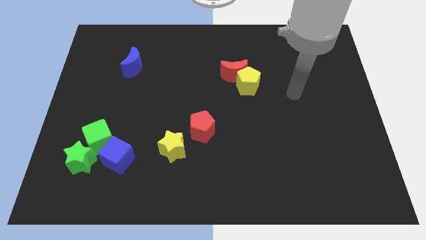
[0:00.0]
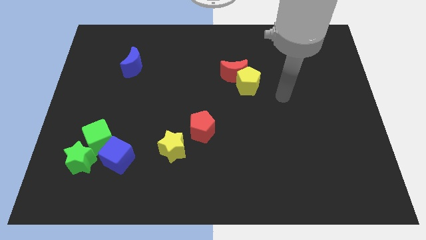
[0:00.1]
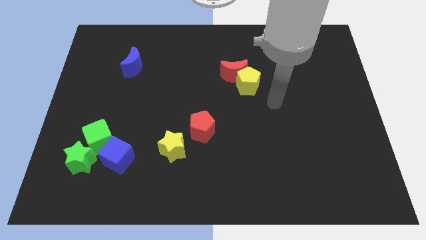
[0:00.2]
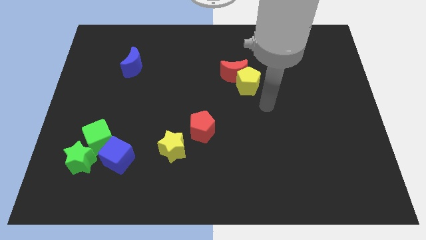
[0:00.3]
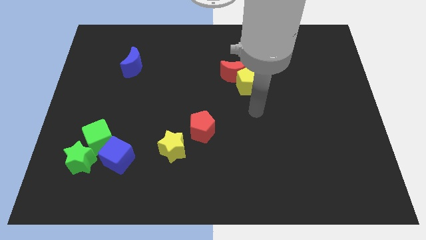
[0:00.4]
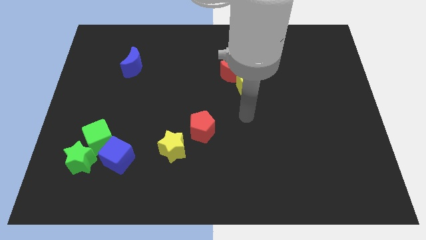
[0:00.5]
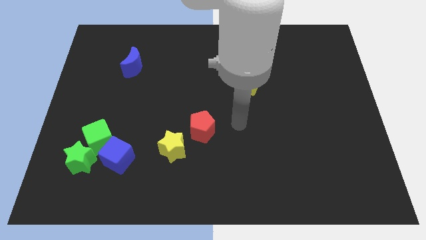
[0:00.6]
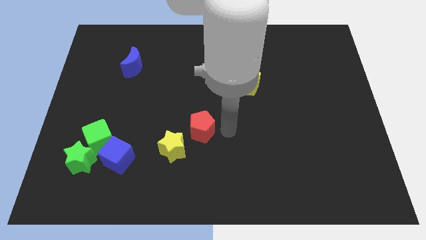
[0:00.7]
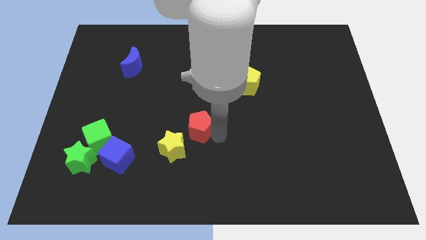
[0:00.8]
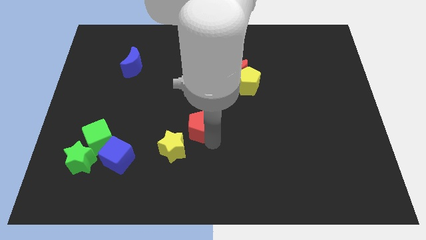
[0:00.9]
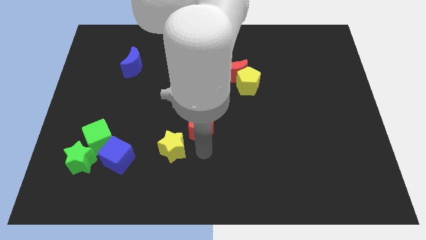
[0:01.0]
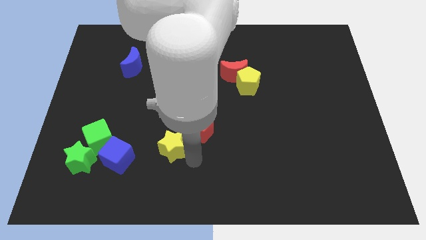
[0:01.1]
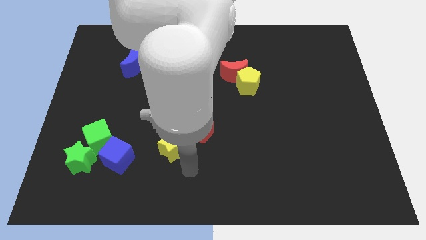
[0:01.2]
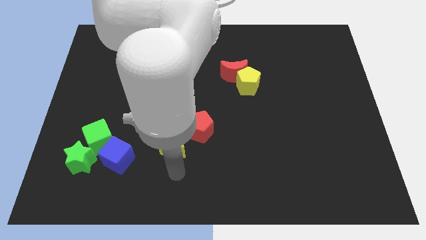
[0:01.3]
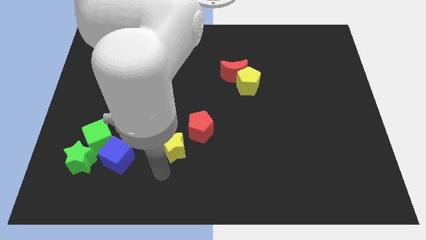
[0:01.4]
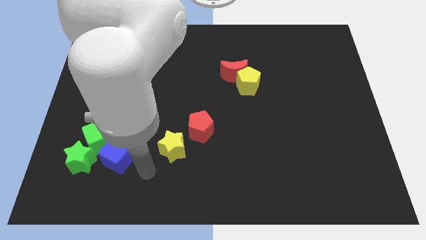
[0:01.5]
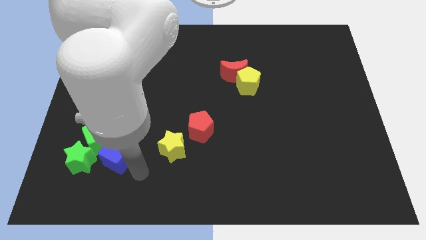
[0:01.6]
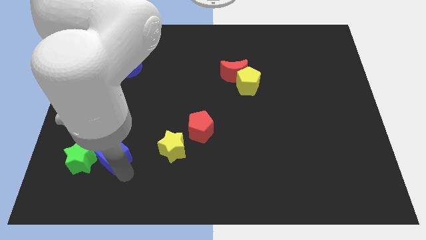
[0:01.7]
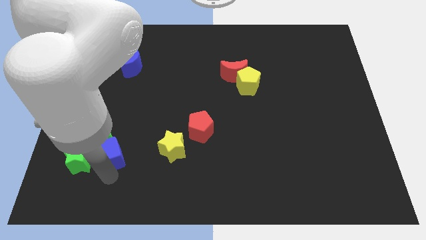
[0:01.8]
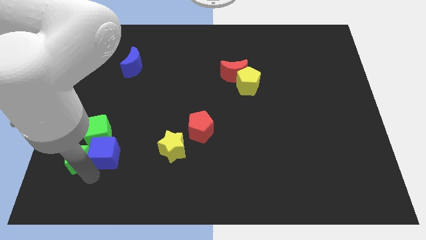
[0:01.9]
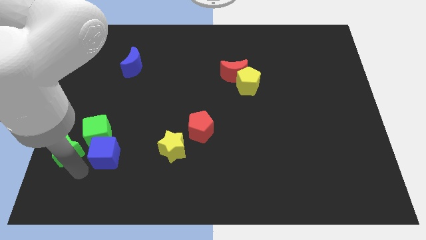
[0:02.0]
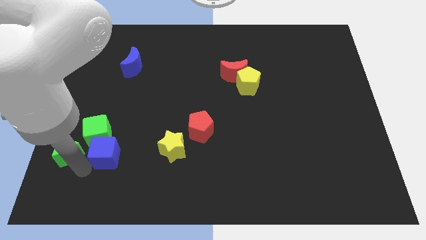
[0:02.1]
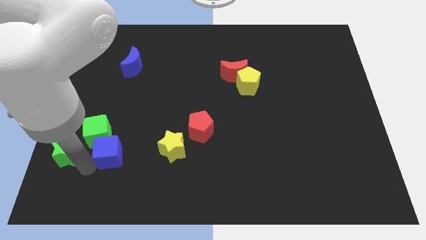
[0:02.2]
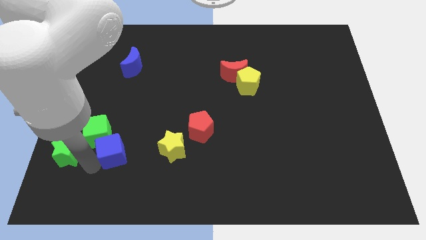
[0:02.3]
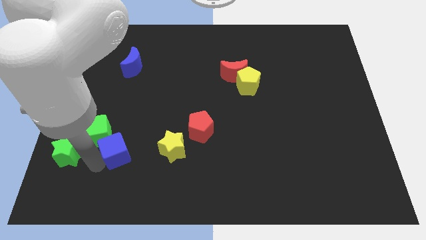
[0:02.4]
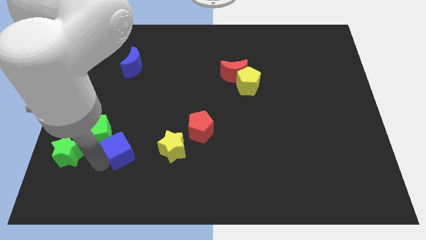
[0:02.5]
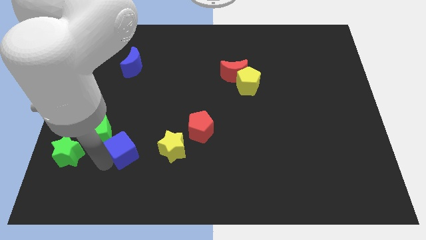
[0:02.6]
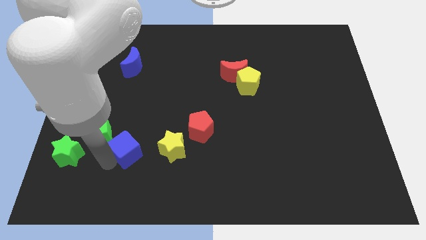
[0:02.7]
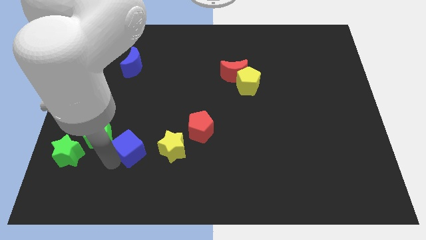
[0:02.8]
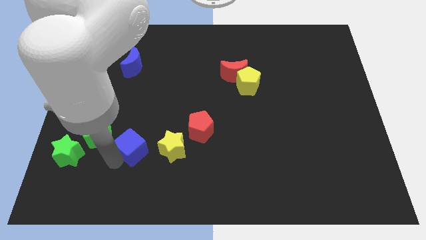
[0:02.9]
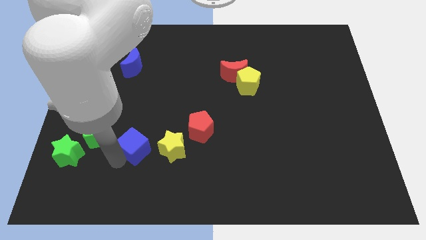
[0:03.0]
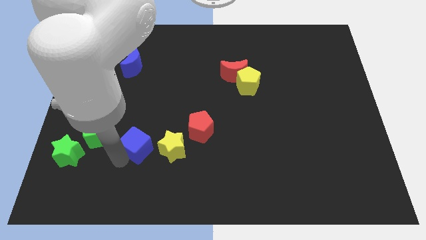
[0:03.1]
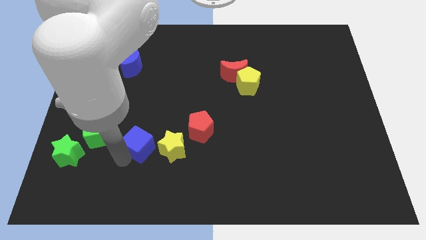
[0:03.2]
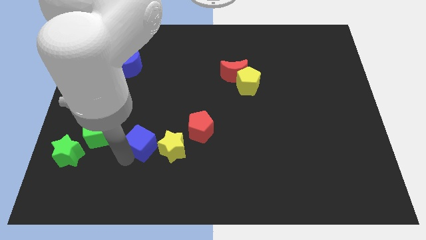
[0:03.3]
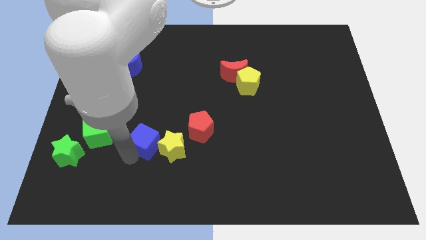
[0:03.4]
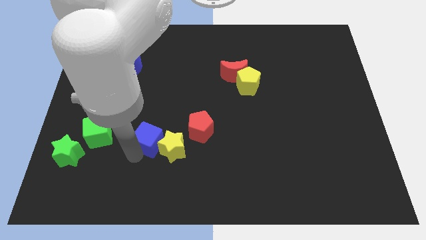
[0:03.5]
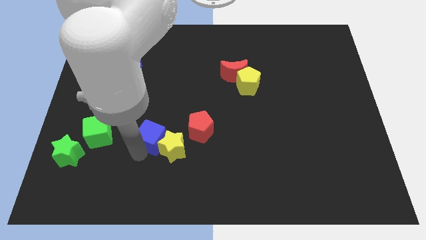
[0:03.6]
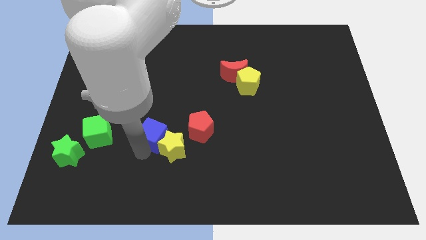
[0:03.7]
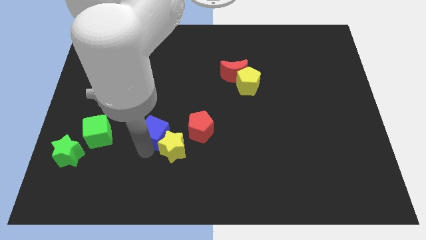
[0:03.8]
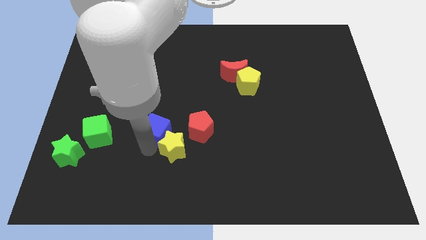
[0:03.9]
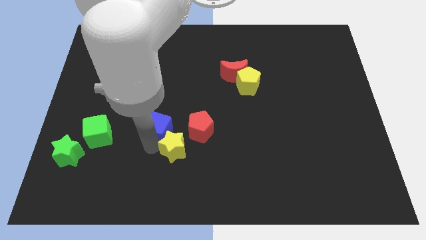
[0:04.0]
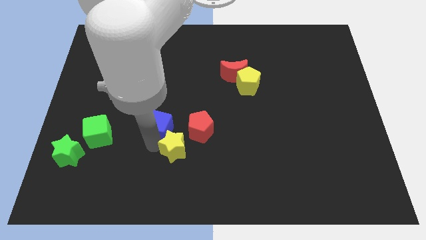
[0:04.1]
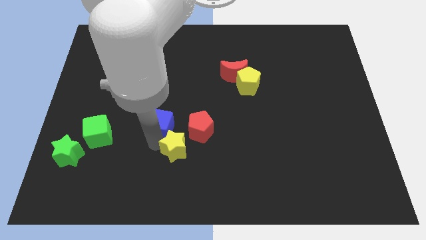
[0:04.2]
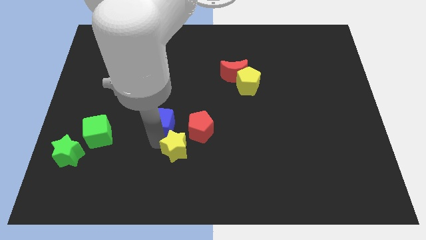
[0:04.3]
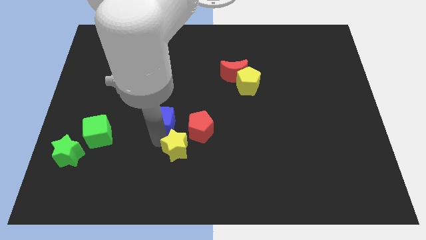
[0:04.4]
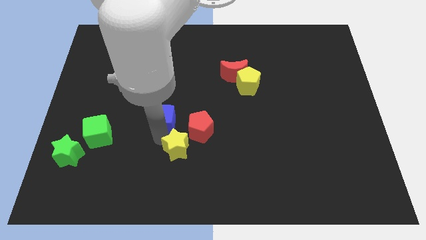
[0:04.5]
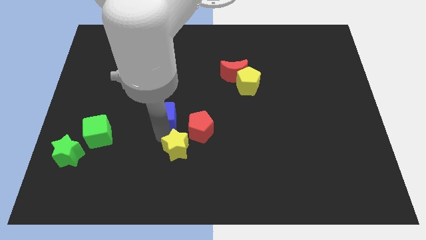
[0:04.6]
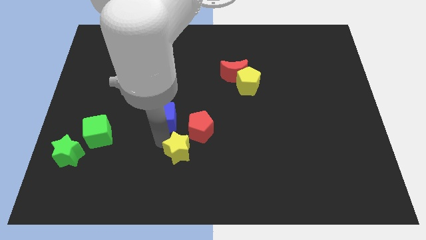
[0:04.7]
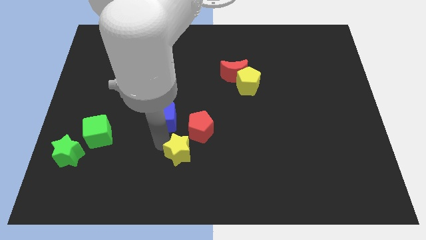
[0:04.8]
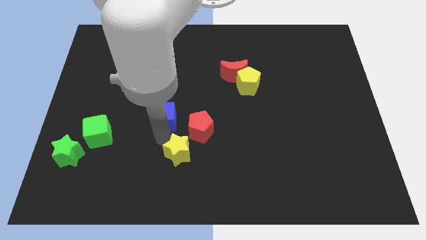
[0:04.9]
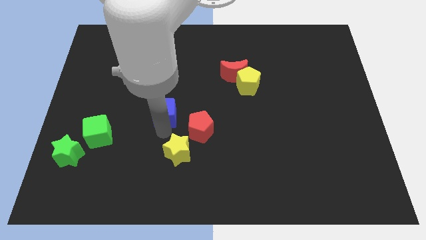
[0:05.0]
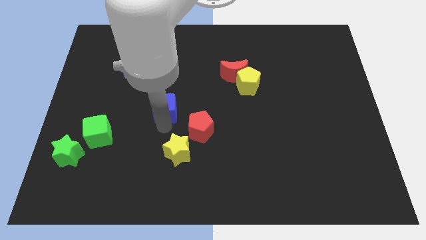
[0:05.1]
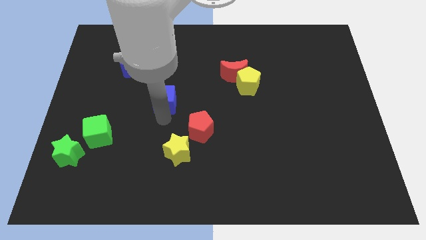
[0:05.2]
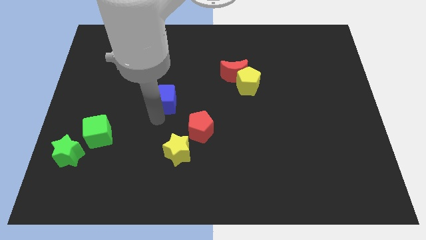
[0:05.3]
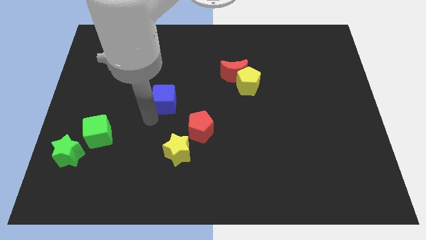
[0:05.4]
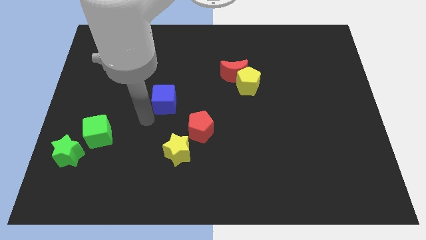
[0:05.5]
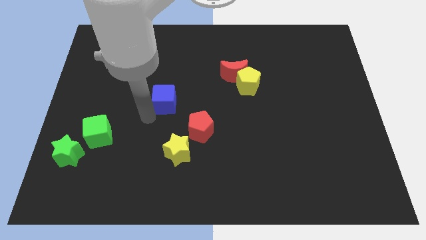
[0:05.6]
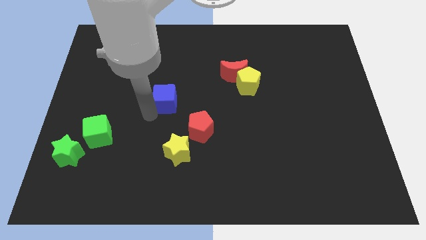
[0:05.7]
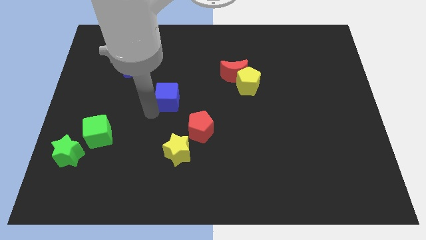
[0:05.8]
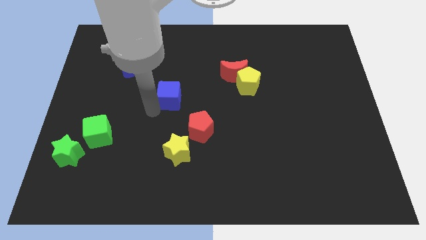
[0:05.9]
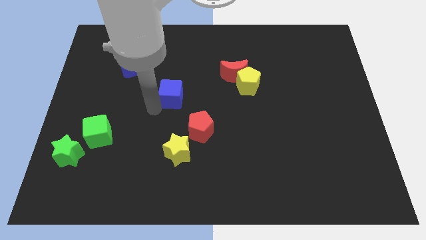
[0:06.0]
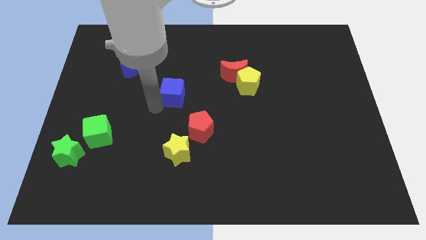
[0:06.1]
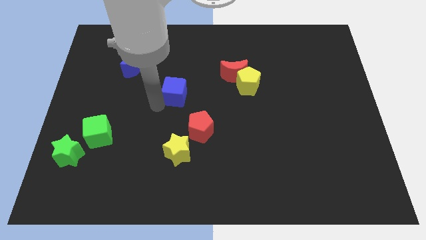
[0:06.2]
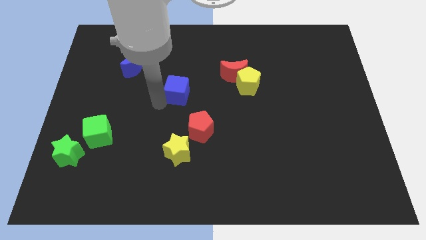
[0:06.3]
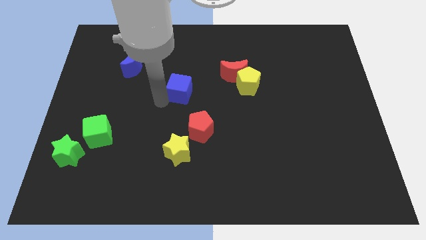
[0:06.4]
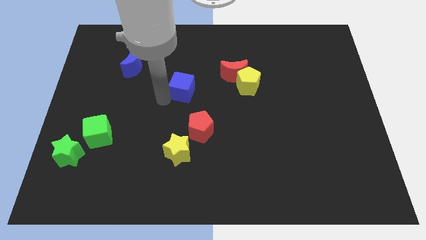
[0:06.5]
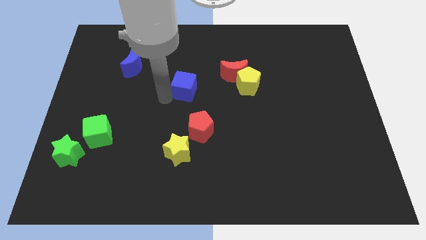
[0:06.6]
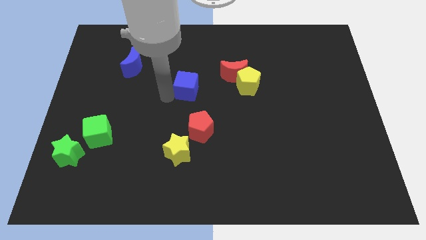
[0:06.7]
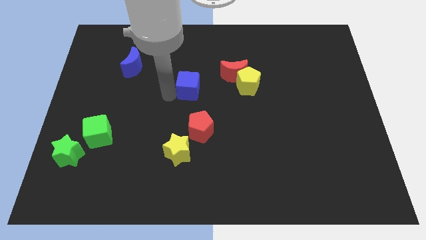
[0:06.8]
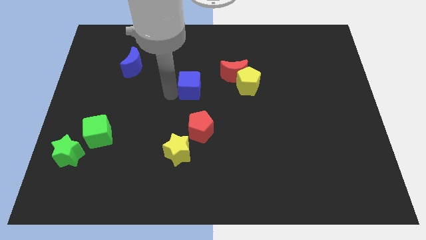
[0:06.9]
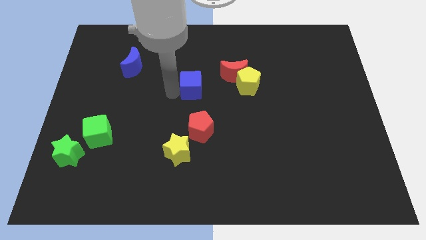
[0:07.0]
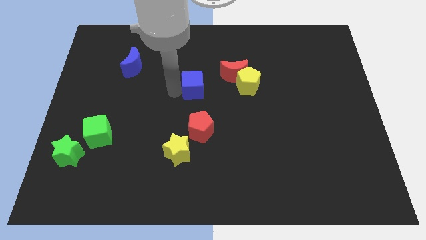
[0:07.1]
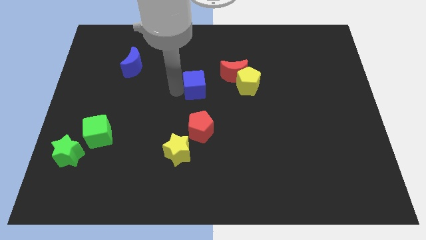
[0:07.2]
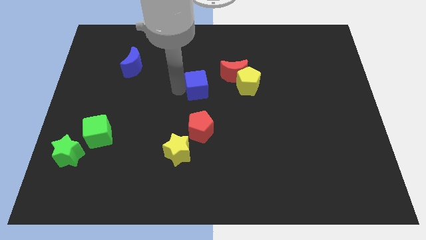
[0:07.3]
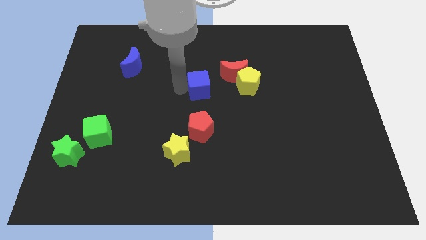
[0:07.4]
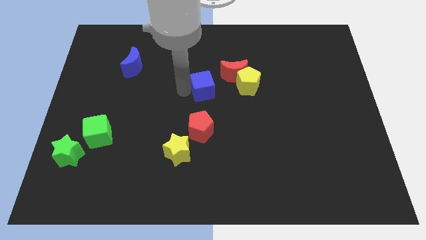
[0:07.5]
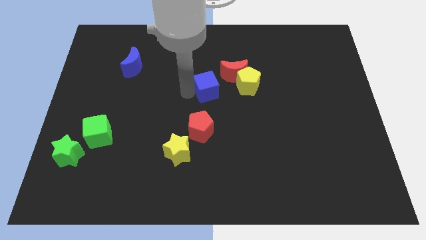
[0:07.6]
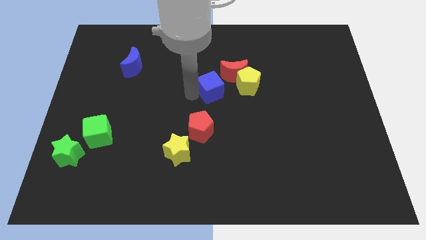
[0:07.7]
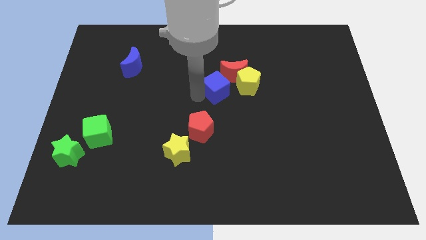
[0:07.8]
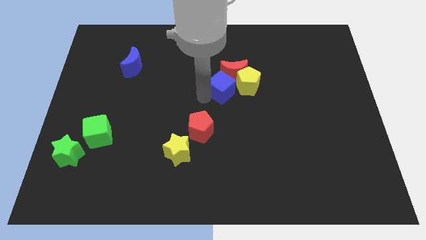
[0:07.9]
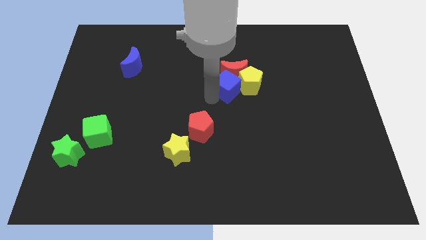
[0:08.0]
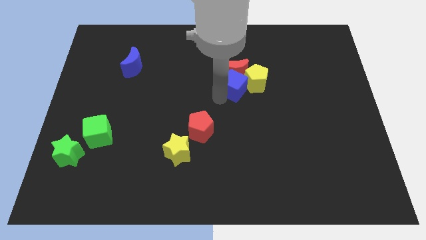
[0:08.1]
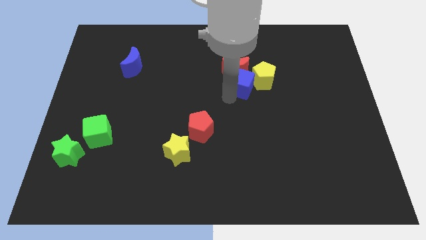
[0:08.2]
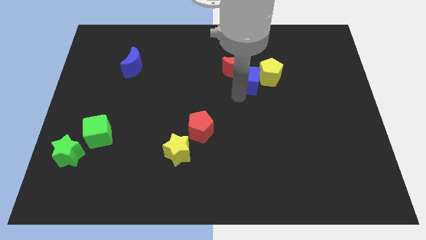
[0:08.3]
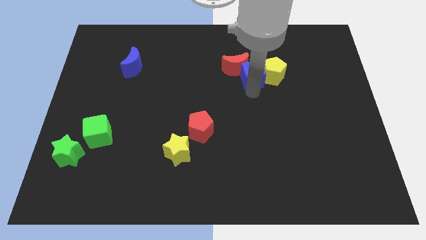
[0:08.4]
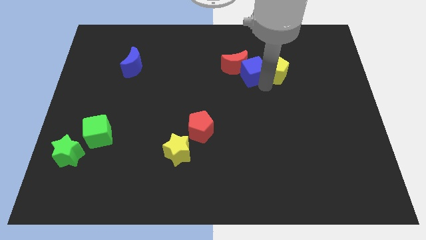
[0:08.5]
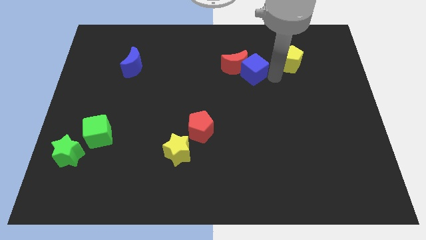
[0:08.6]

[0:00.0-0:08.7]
put the blue cube diagonally up and to the right of the red moon
